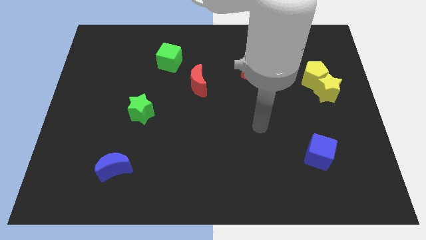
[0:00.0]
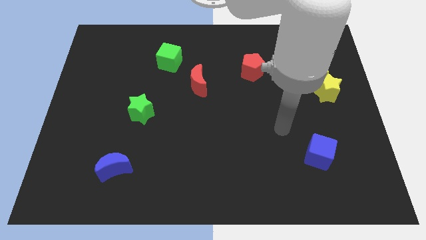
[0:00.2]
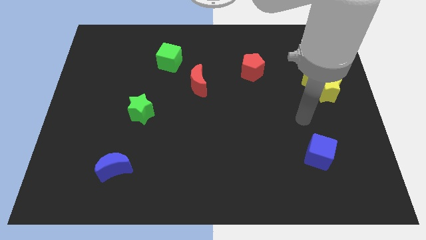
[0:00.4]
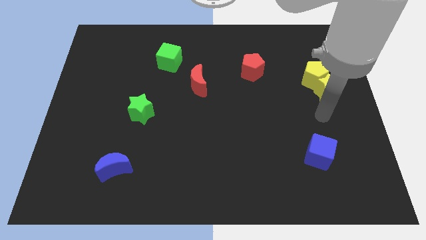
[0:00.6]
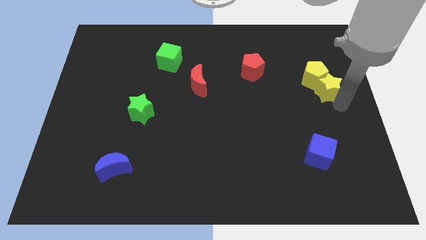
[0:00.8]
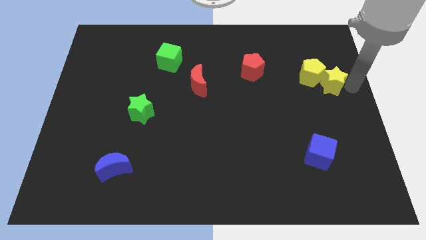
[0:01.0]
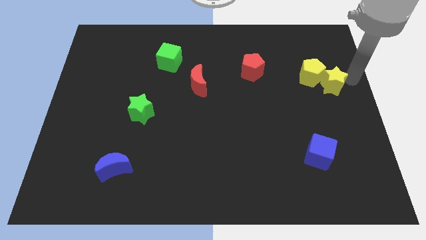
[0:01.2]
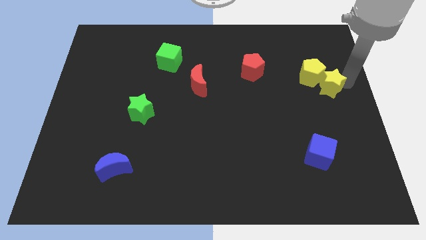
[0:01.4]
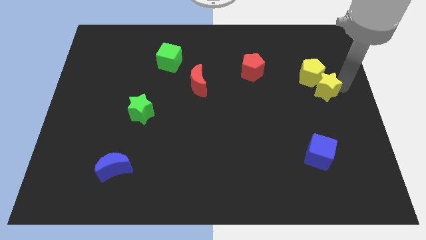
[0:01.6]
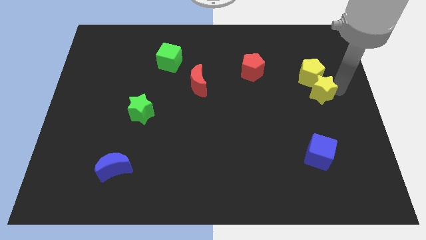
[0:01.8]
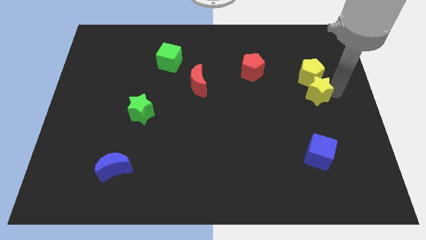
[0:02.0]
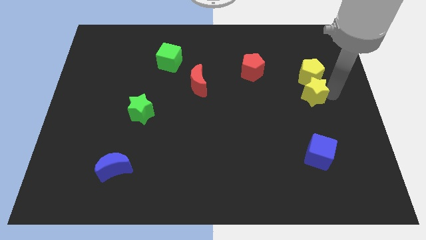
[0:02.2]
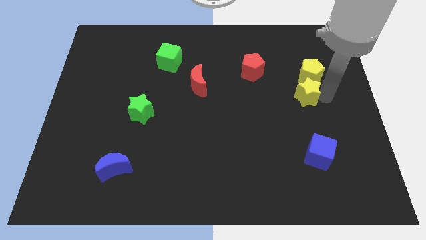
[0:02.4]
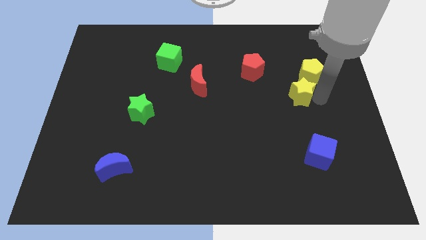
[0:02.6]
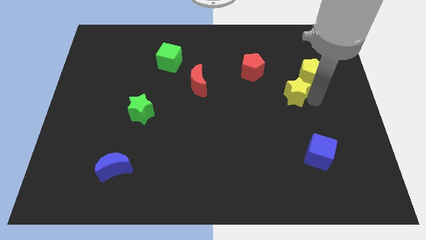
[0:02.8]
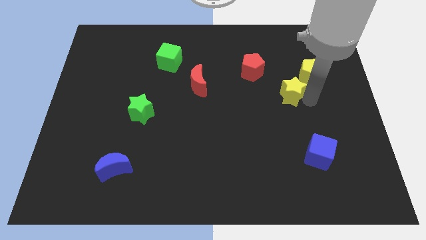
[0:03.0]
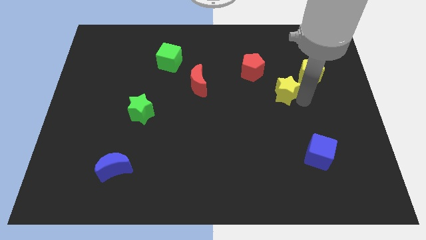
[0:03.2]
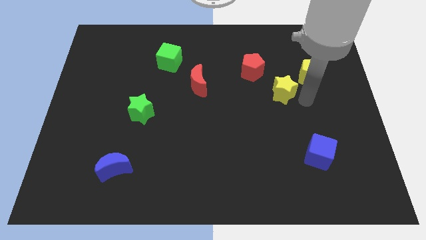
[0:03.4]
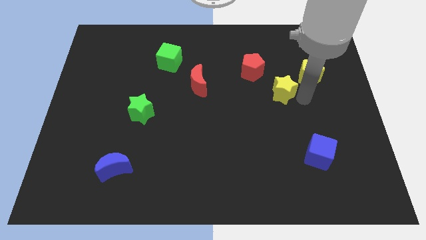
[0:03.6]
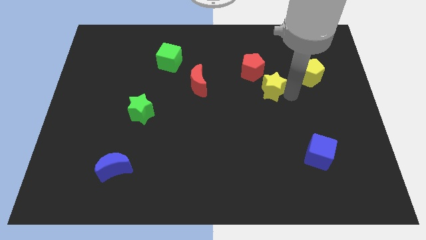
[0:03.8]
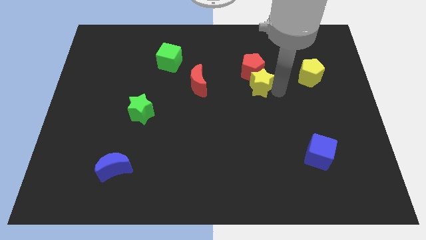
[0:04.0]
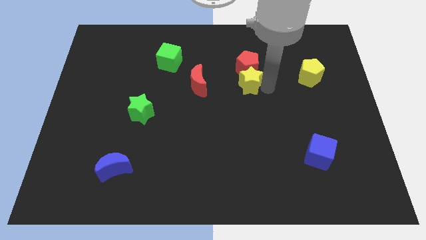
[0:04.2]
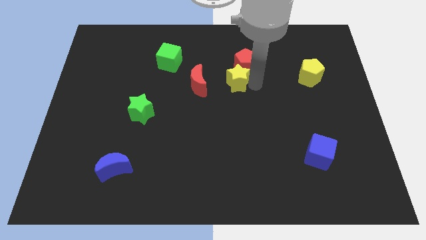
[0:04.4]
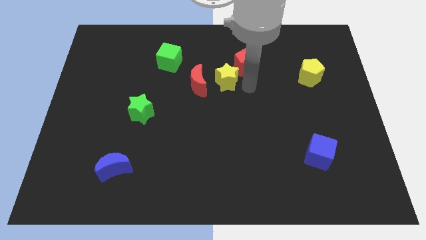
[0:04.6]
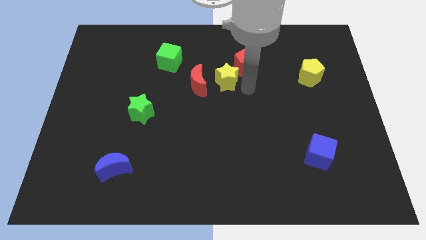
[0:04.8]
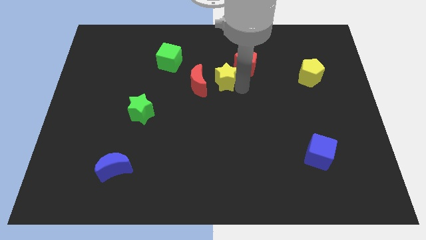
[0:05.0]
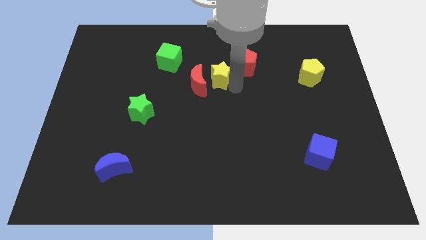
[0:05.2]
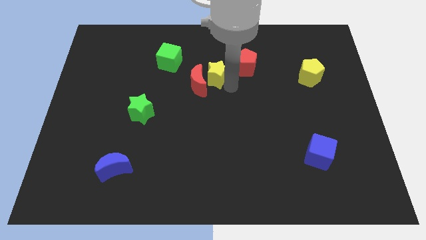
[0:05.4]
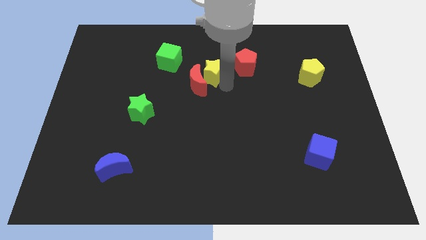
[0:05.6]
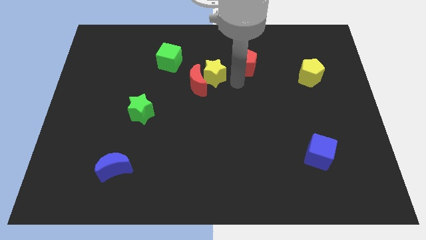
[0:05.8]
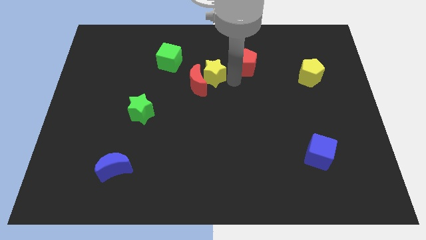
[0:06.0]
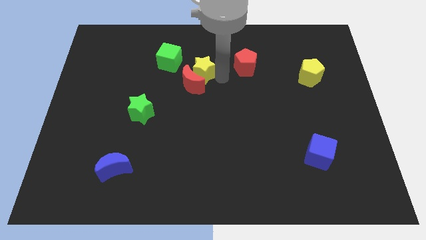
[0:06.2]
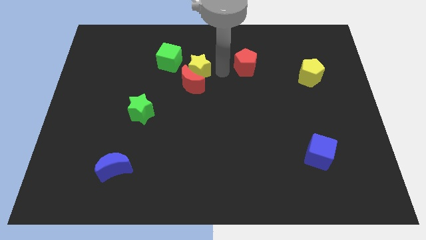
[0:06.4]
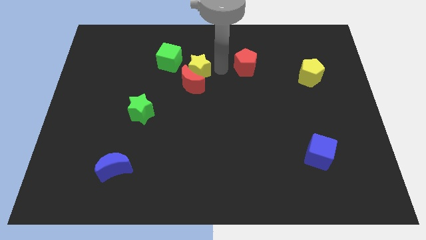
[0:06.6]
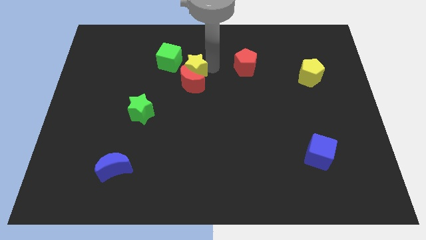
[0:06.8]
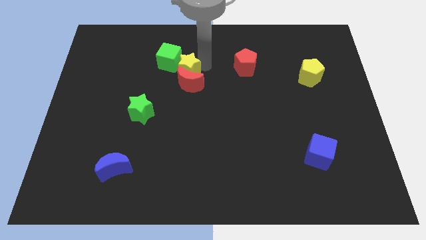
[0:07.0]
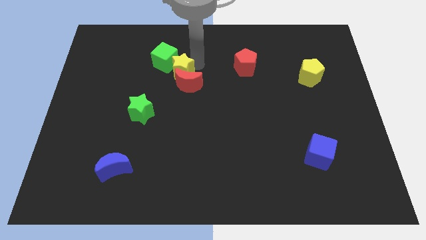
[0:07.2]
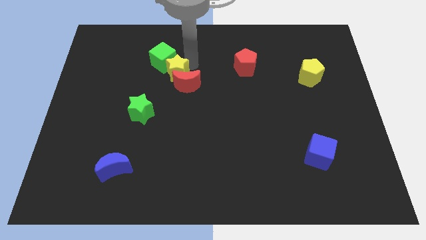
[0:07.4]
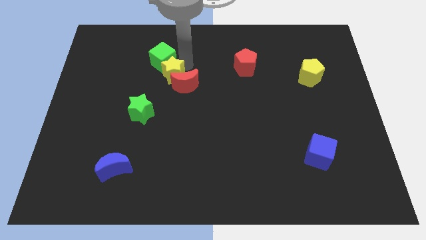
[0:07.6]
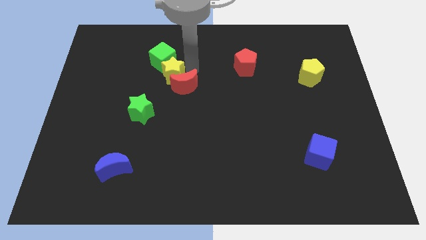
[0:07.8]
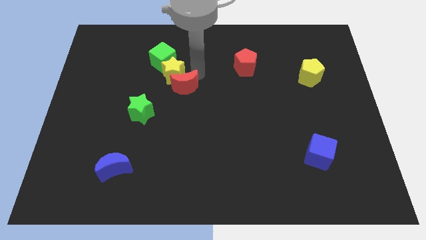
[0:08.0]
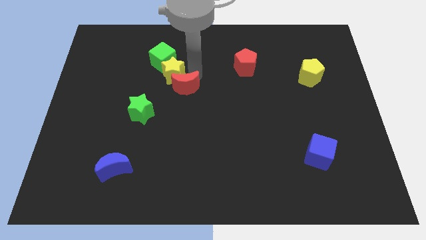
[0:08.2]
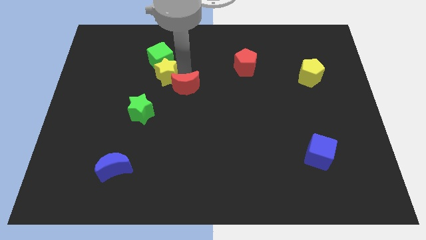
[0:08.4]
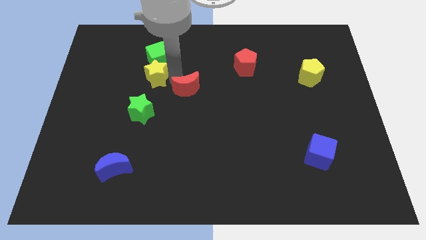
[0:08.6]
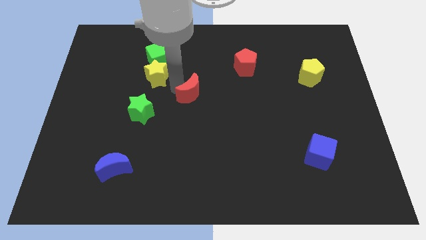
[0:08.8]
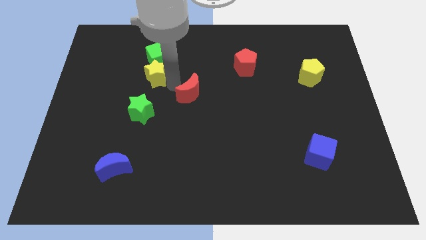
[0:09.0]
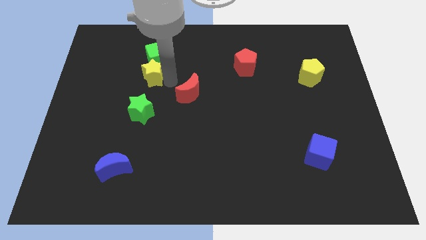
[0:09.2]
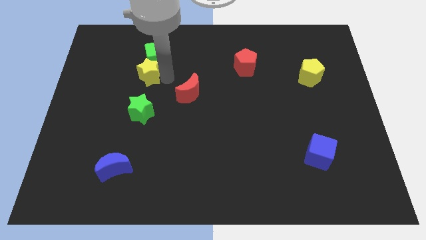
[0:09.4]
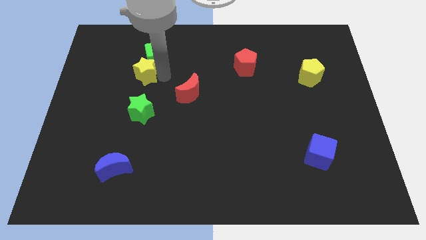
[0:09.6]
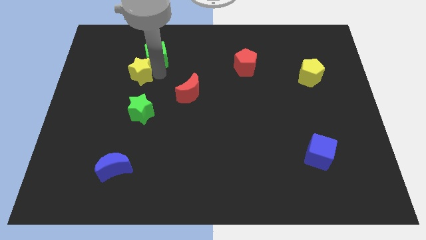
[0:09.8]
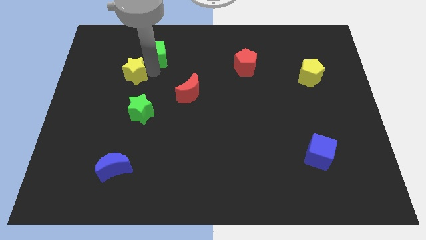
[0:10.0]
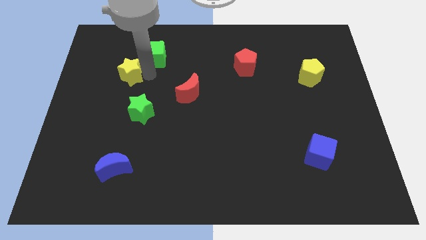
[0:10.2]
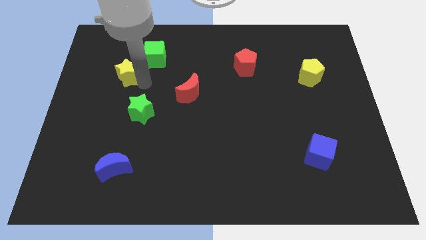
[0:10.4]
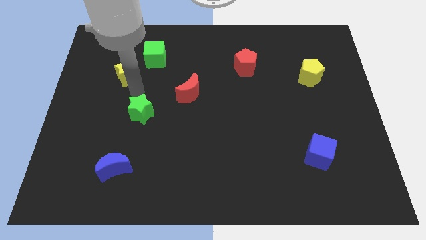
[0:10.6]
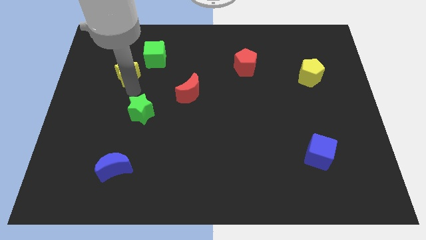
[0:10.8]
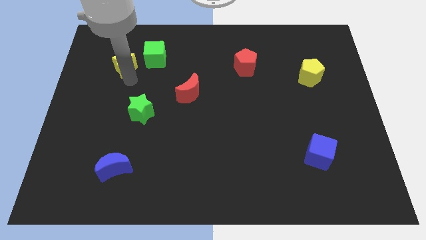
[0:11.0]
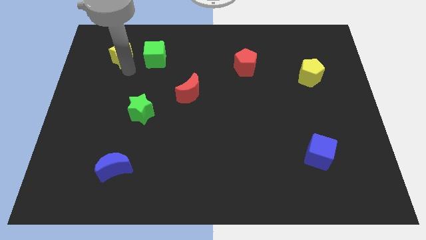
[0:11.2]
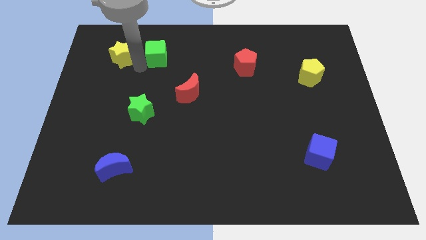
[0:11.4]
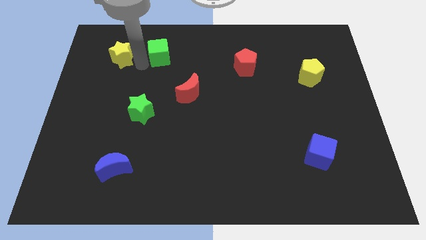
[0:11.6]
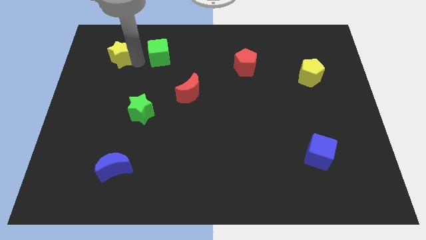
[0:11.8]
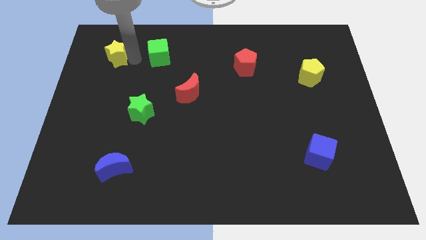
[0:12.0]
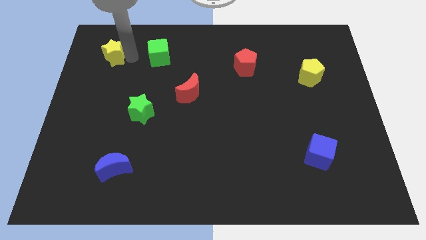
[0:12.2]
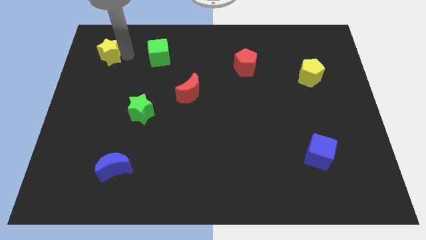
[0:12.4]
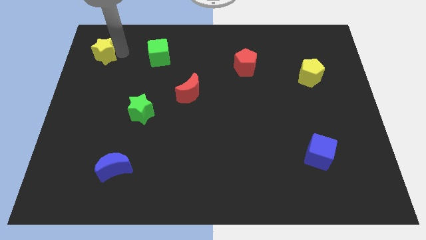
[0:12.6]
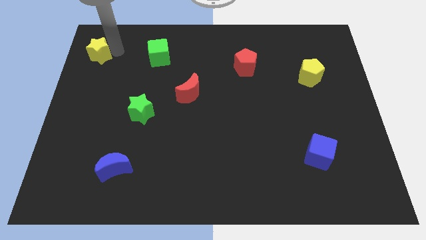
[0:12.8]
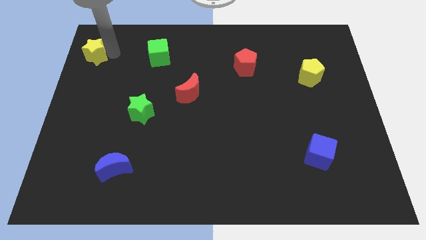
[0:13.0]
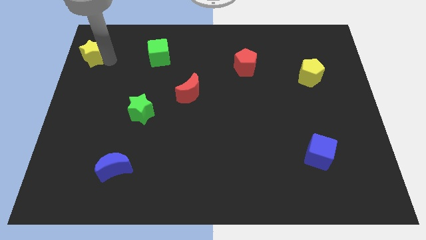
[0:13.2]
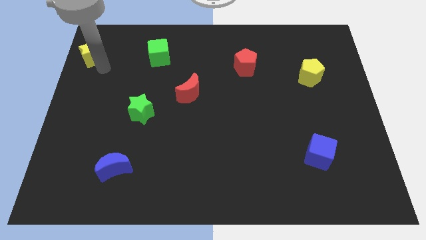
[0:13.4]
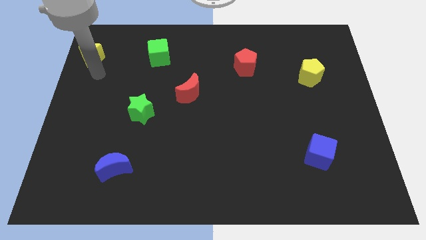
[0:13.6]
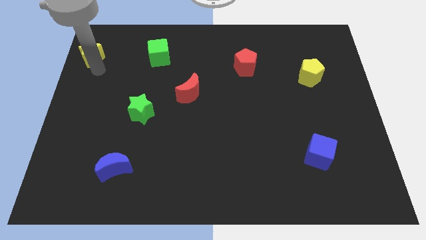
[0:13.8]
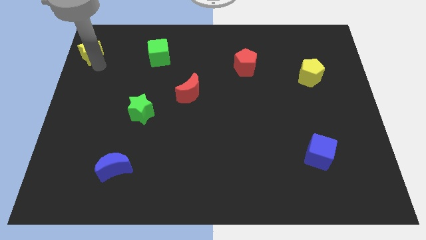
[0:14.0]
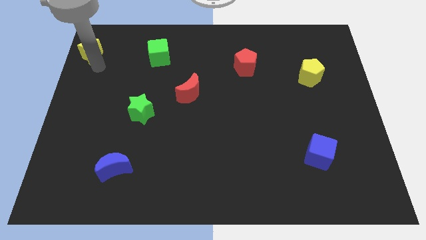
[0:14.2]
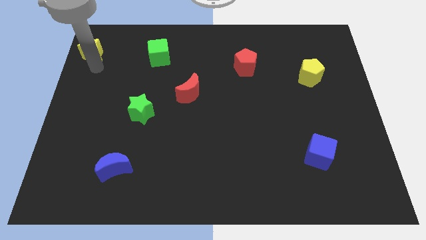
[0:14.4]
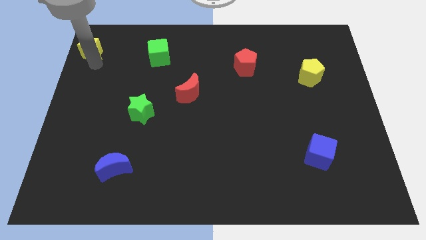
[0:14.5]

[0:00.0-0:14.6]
move the yellow star to the top left corner
